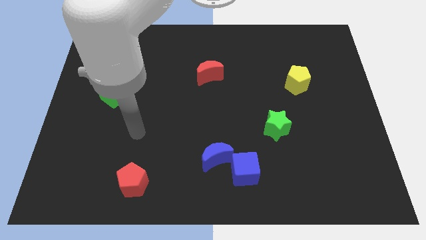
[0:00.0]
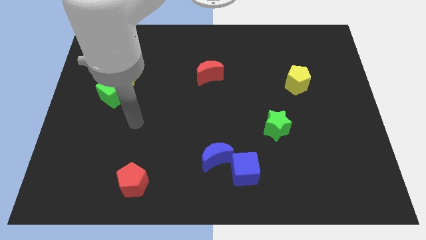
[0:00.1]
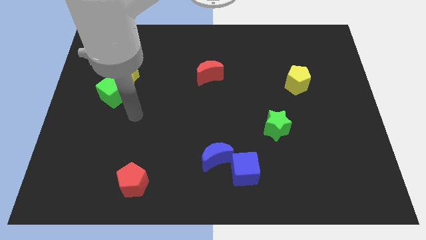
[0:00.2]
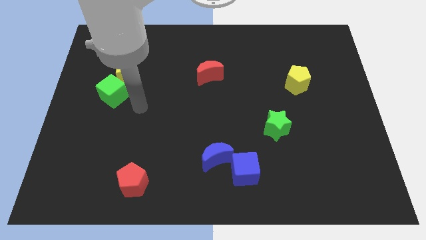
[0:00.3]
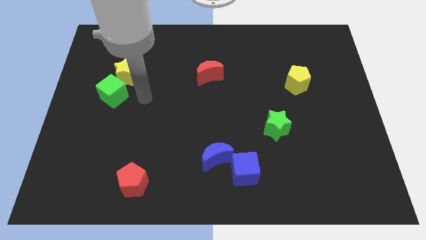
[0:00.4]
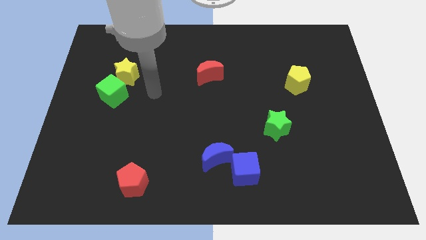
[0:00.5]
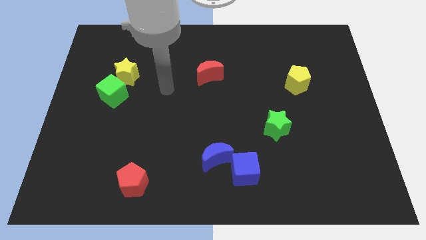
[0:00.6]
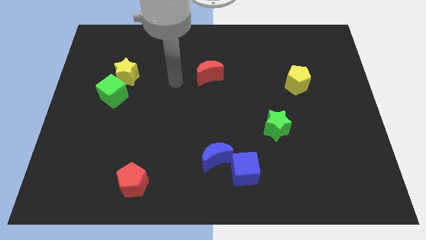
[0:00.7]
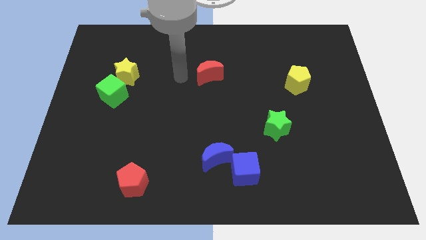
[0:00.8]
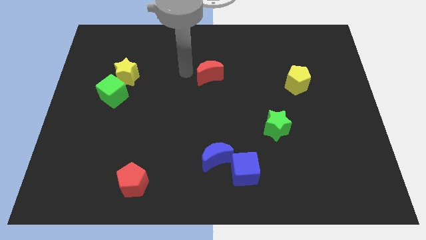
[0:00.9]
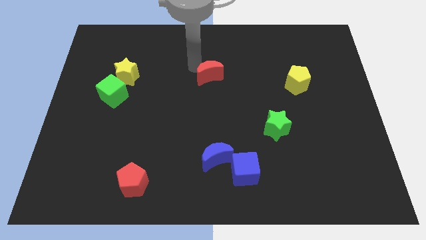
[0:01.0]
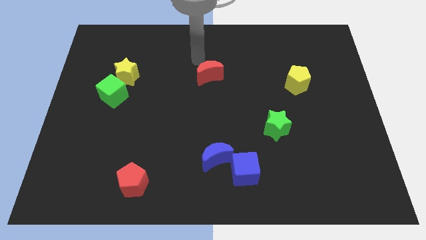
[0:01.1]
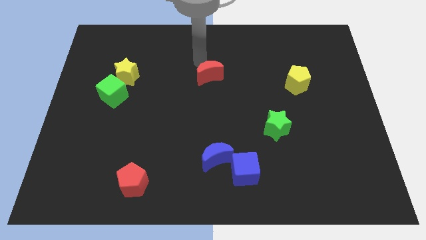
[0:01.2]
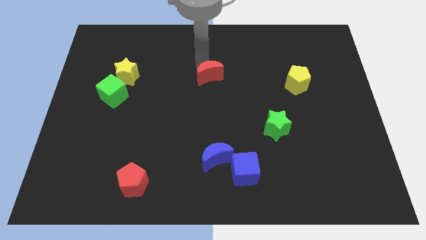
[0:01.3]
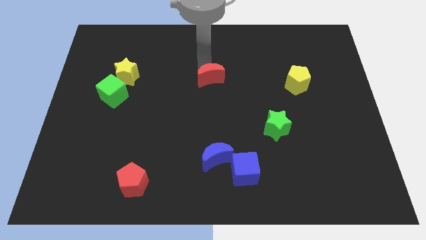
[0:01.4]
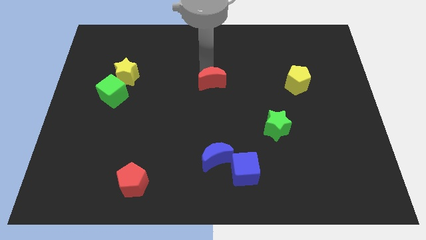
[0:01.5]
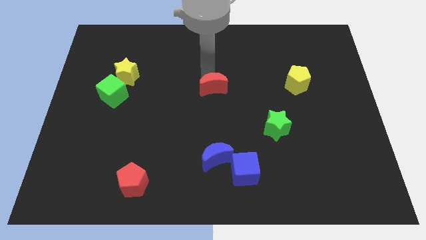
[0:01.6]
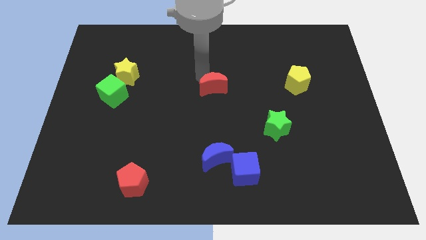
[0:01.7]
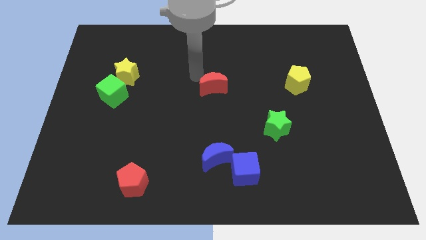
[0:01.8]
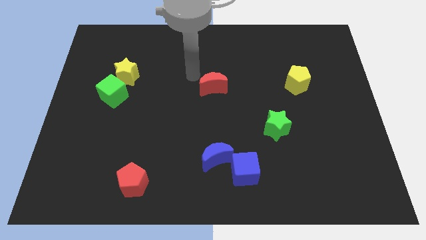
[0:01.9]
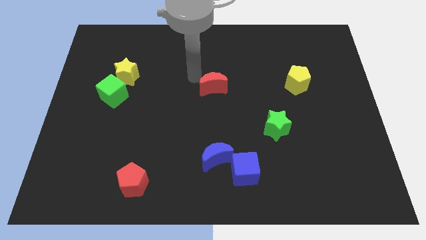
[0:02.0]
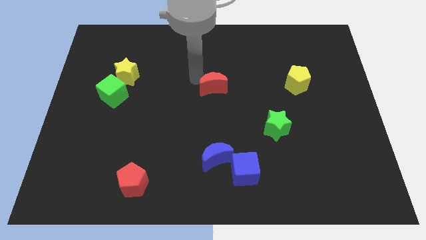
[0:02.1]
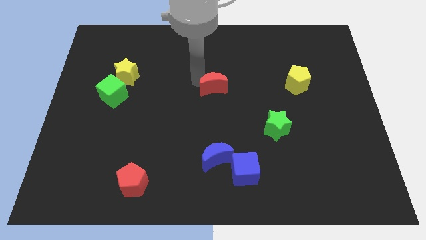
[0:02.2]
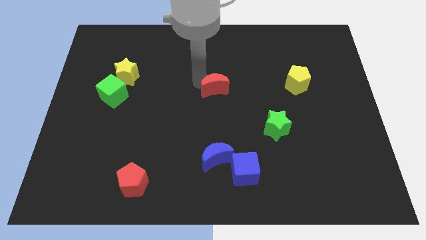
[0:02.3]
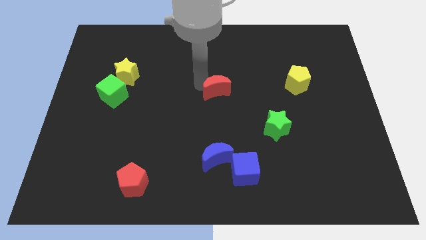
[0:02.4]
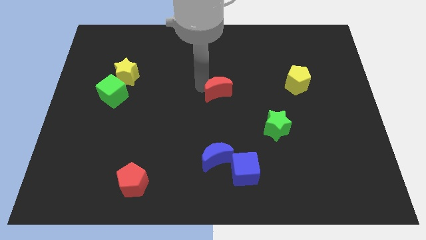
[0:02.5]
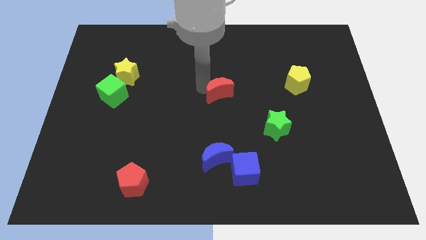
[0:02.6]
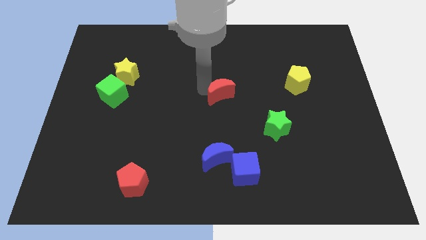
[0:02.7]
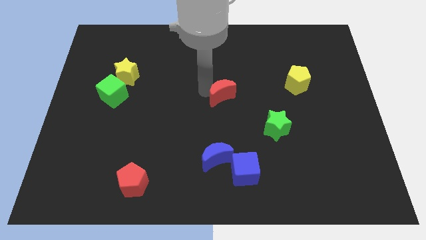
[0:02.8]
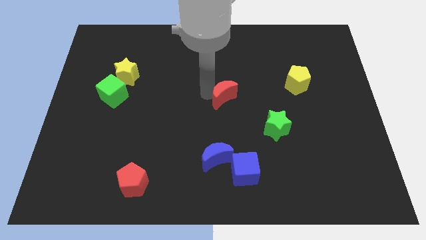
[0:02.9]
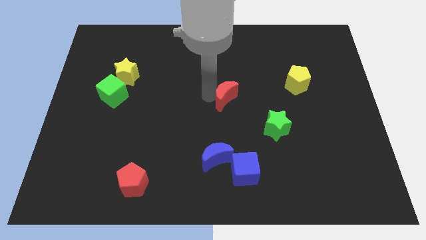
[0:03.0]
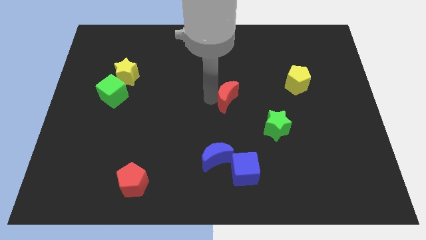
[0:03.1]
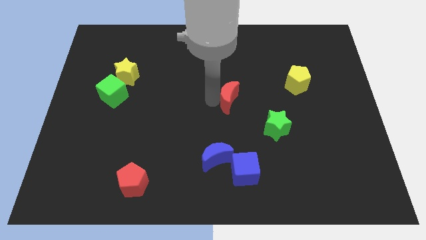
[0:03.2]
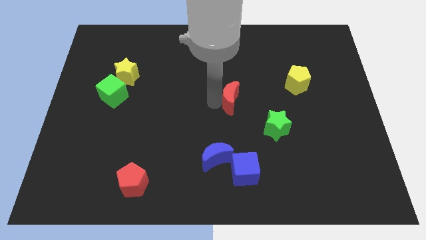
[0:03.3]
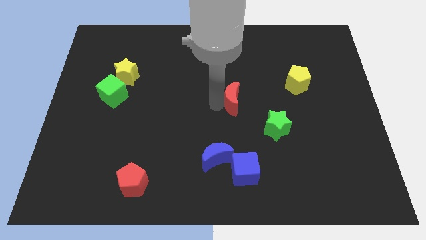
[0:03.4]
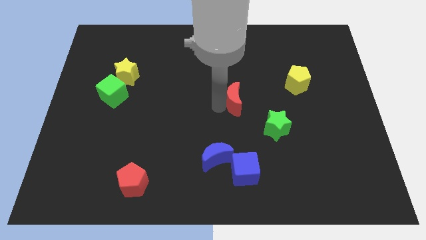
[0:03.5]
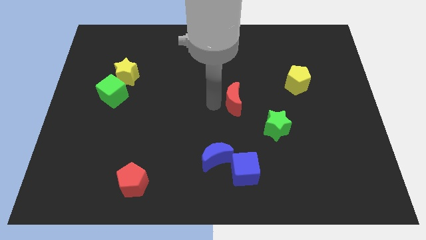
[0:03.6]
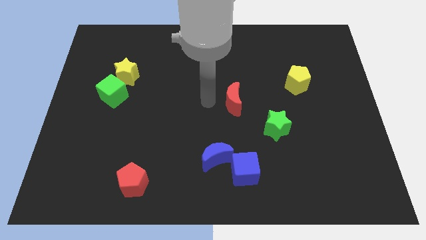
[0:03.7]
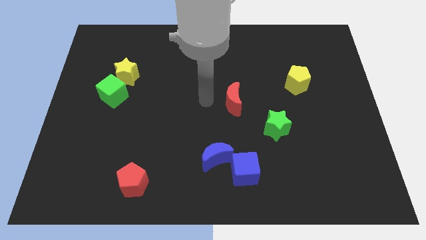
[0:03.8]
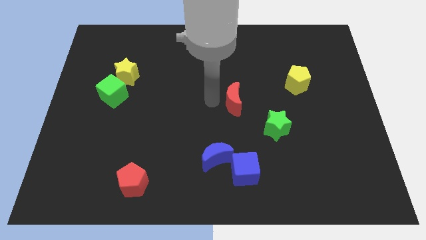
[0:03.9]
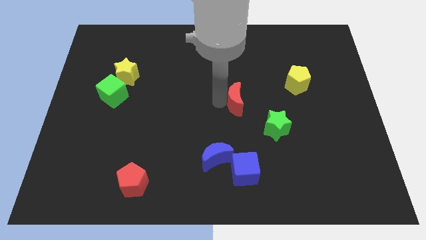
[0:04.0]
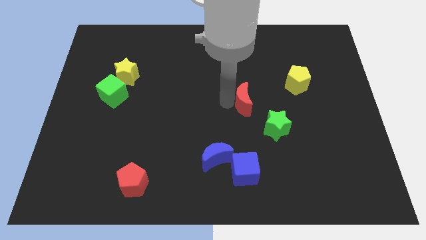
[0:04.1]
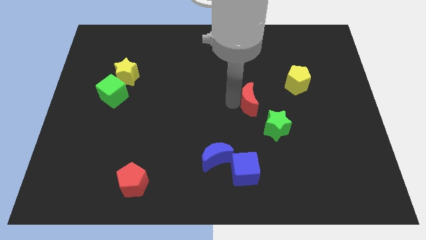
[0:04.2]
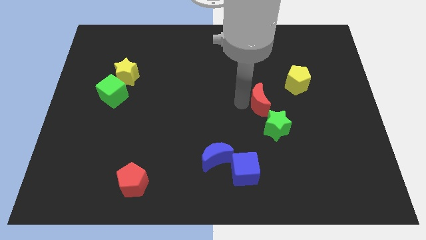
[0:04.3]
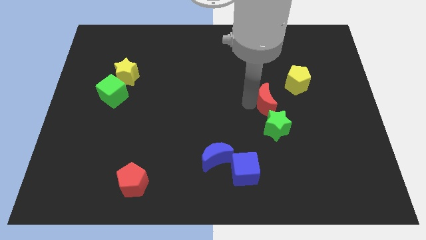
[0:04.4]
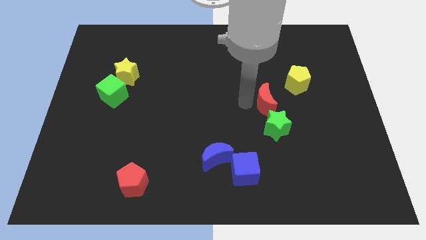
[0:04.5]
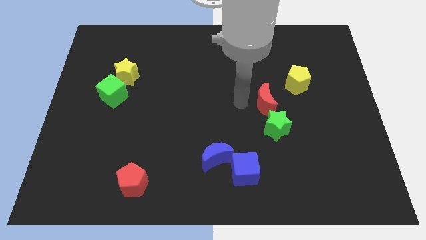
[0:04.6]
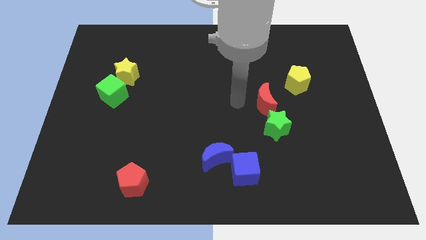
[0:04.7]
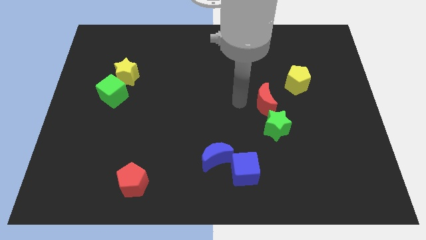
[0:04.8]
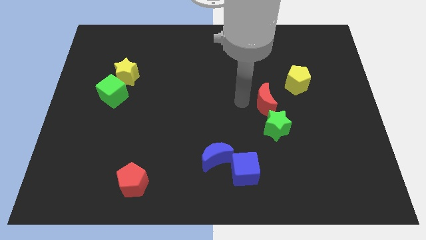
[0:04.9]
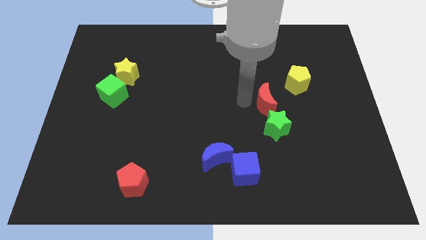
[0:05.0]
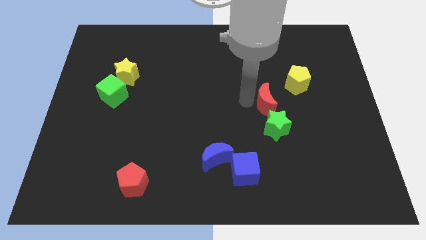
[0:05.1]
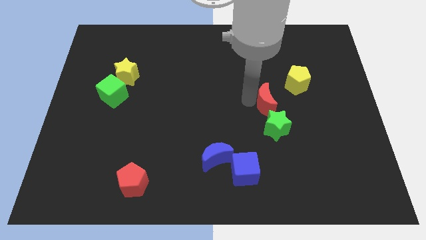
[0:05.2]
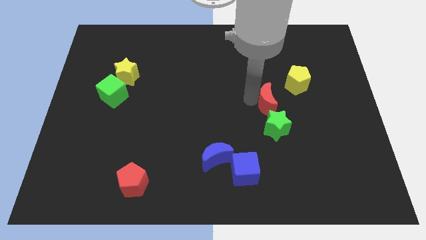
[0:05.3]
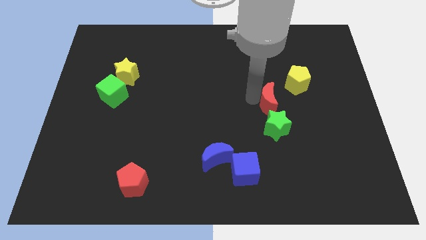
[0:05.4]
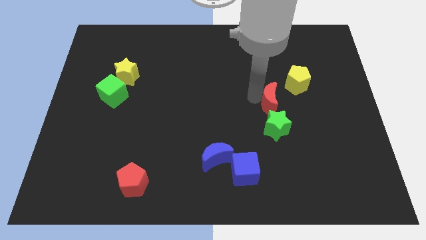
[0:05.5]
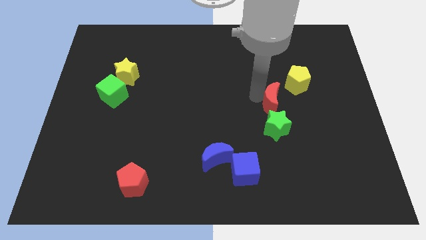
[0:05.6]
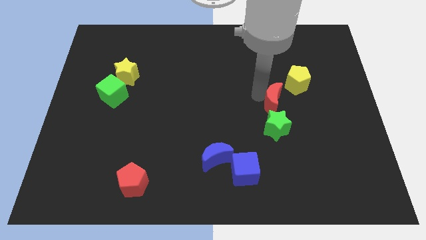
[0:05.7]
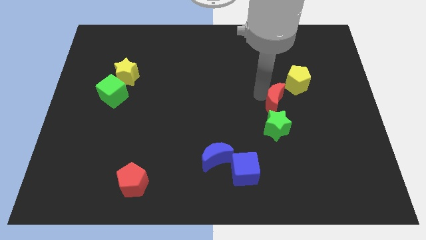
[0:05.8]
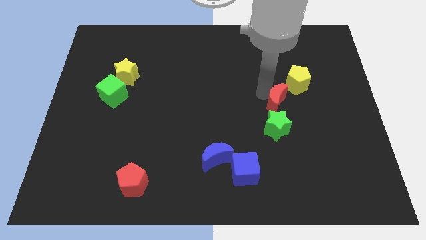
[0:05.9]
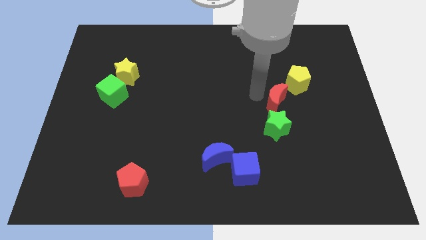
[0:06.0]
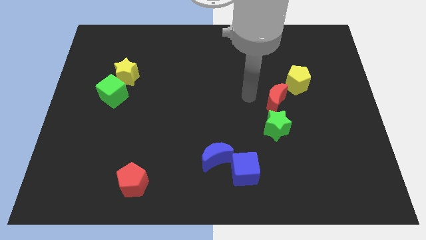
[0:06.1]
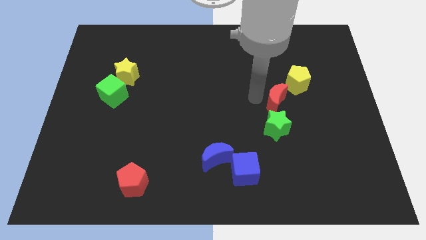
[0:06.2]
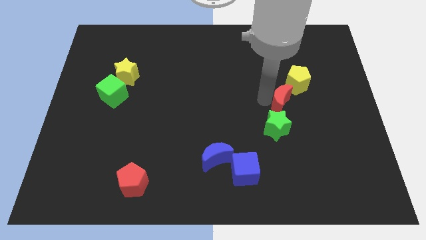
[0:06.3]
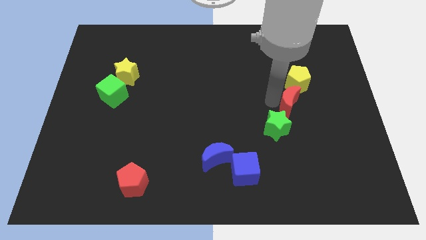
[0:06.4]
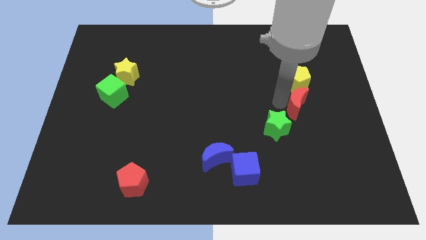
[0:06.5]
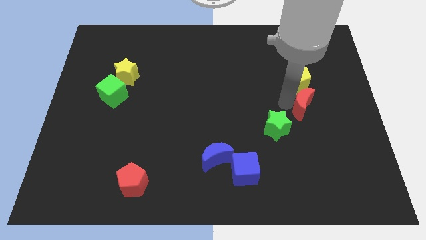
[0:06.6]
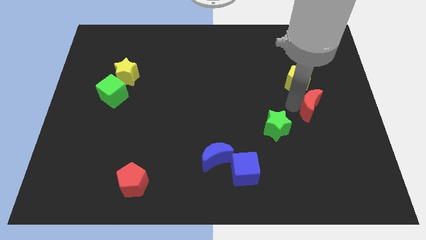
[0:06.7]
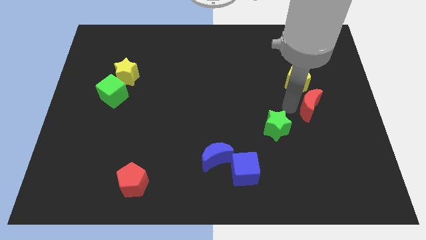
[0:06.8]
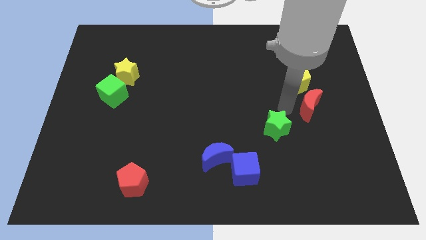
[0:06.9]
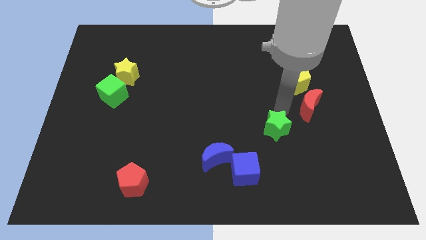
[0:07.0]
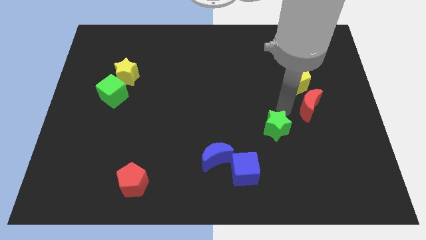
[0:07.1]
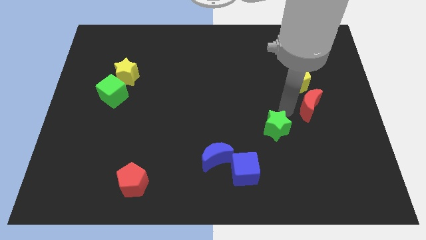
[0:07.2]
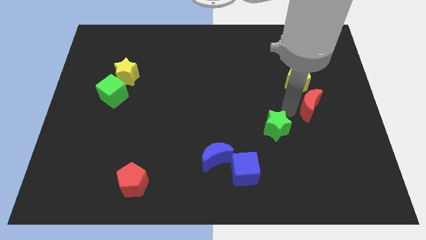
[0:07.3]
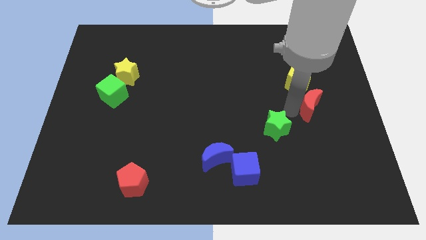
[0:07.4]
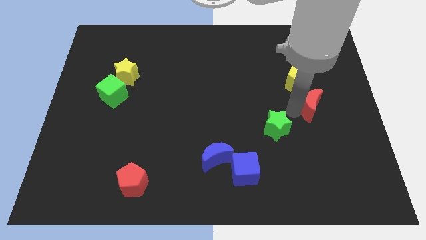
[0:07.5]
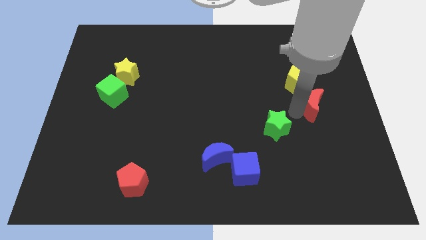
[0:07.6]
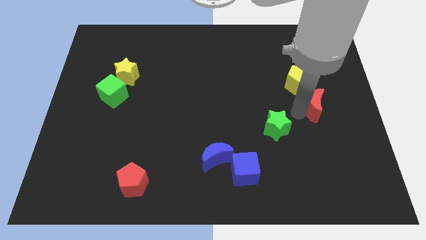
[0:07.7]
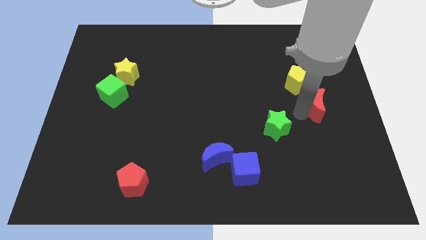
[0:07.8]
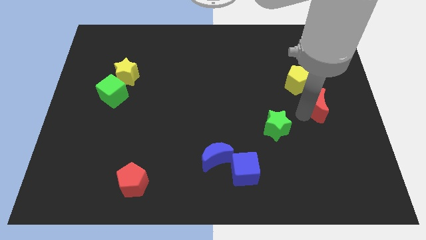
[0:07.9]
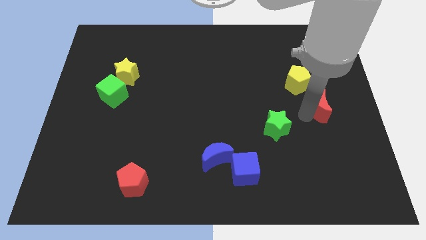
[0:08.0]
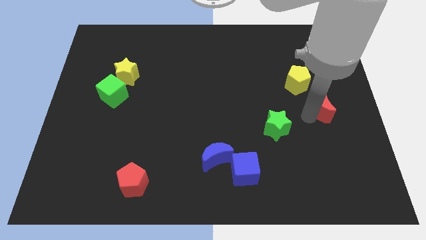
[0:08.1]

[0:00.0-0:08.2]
slide the red moon to the center right
